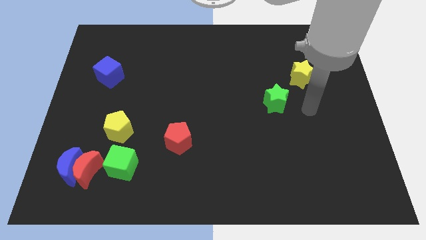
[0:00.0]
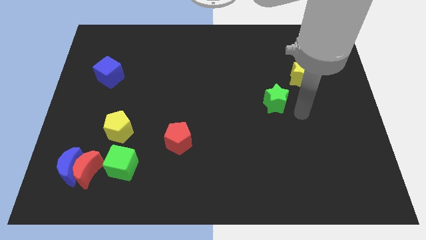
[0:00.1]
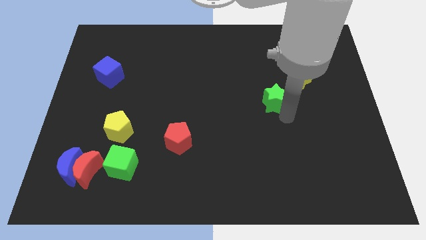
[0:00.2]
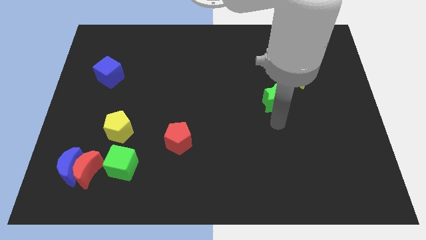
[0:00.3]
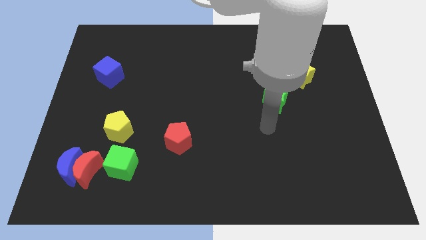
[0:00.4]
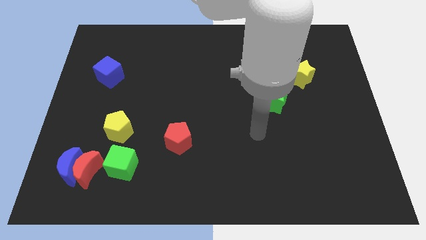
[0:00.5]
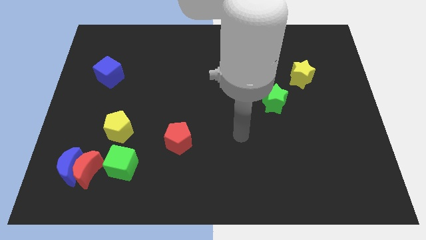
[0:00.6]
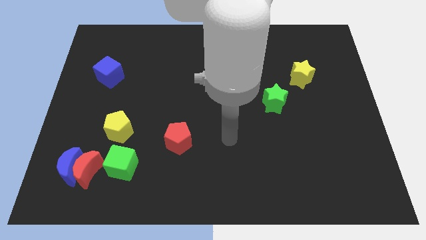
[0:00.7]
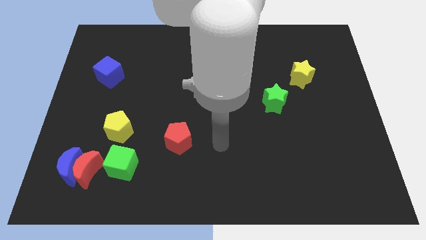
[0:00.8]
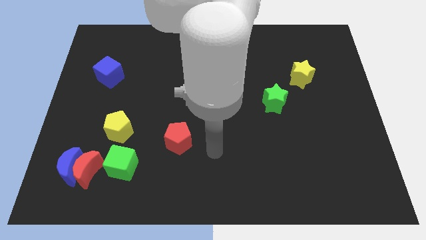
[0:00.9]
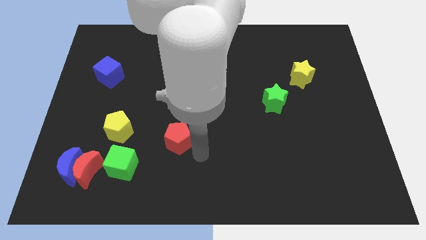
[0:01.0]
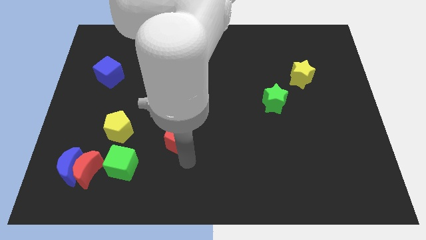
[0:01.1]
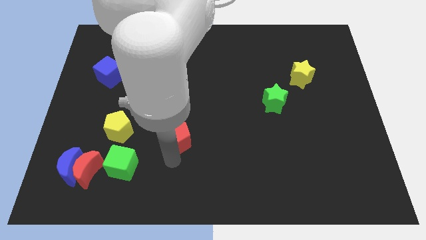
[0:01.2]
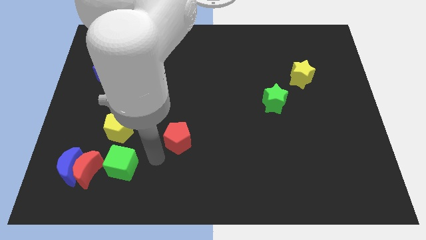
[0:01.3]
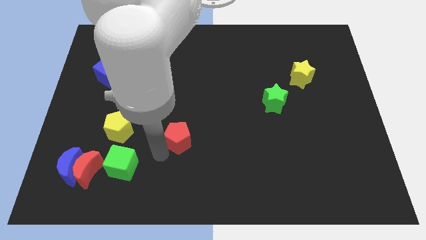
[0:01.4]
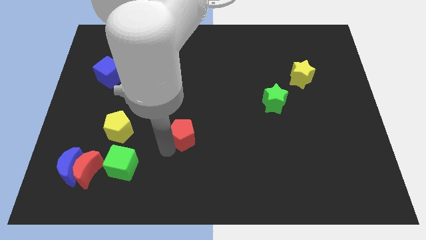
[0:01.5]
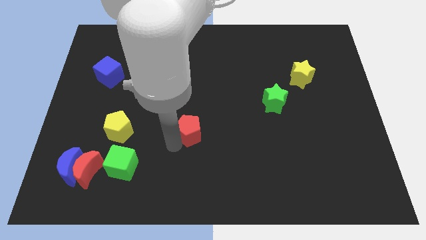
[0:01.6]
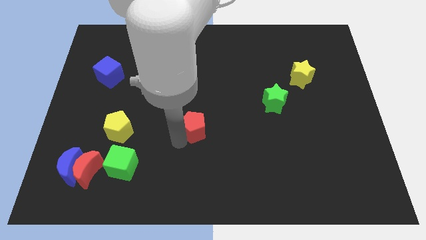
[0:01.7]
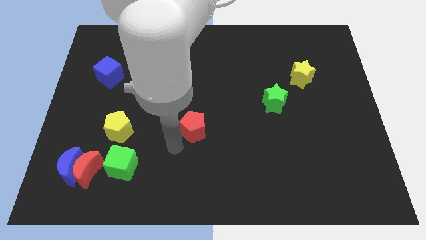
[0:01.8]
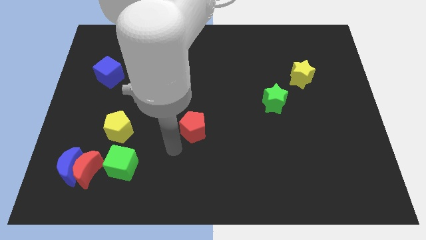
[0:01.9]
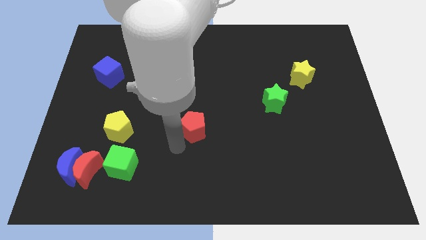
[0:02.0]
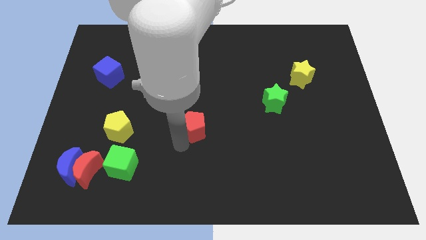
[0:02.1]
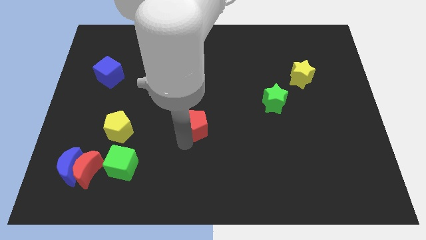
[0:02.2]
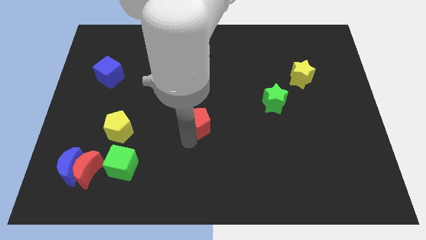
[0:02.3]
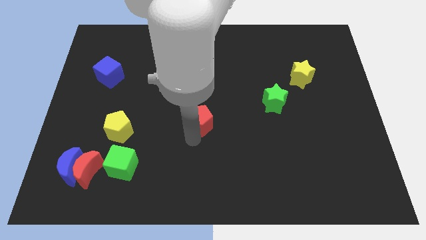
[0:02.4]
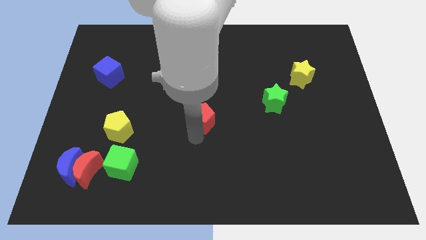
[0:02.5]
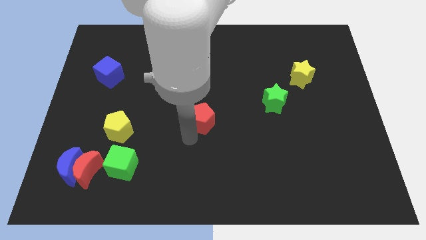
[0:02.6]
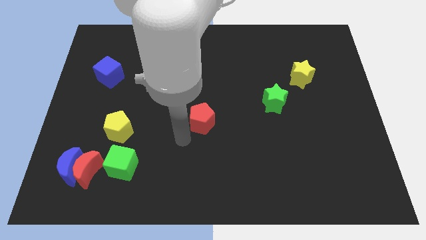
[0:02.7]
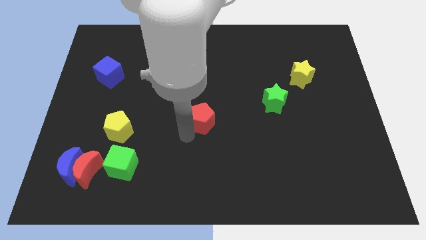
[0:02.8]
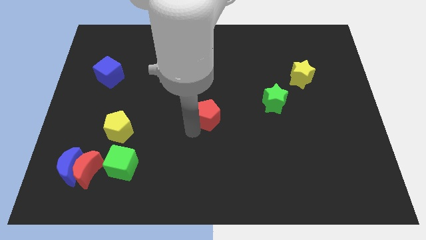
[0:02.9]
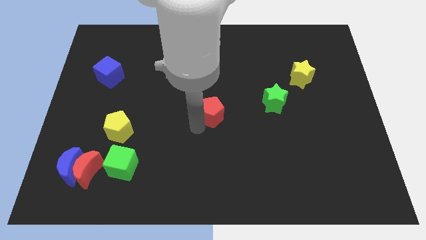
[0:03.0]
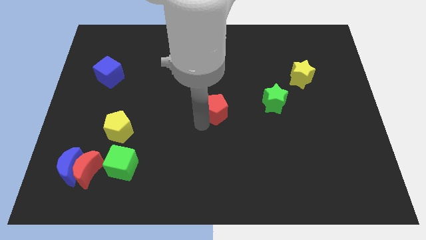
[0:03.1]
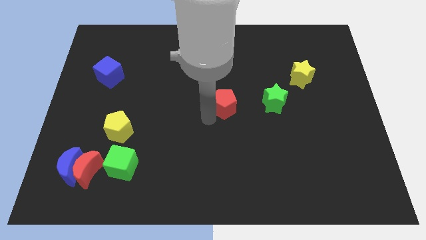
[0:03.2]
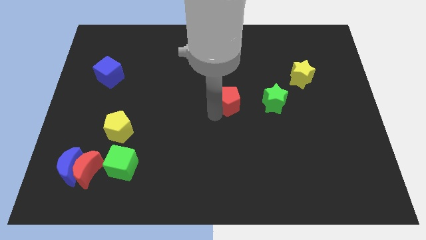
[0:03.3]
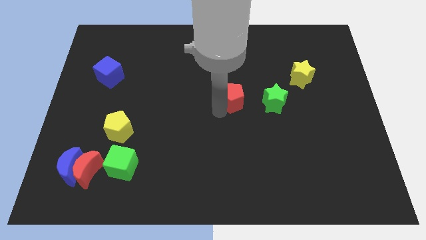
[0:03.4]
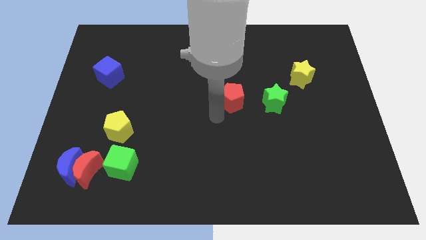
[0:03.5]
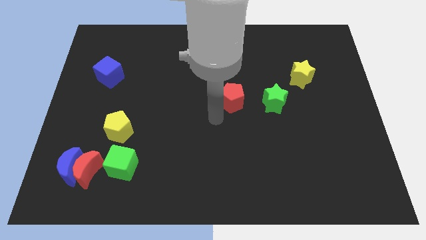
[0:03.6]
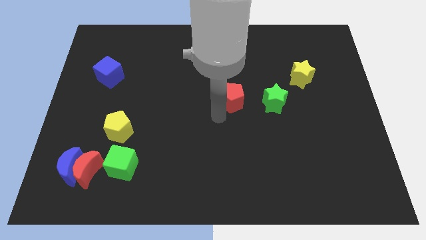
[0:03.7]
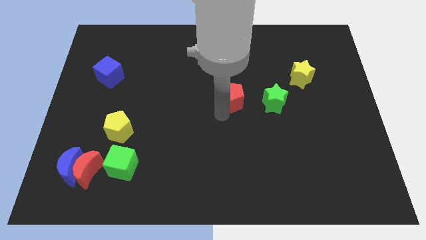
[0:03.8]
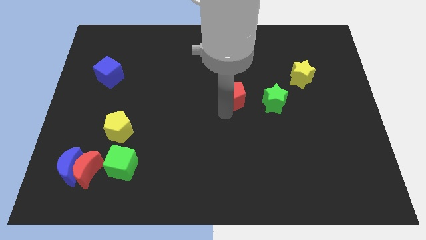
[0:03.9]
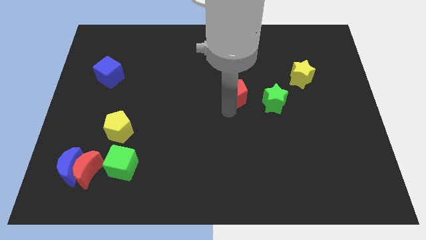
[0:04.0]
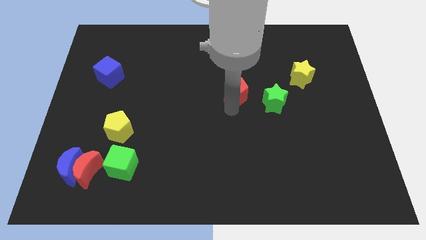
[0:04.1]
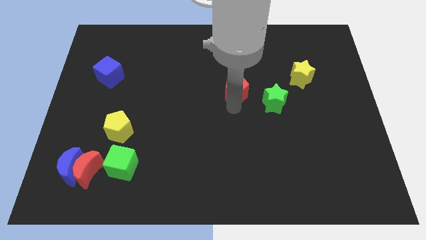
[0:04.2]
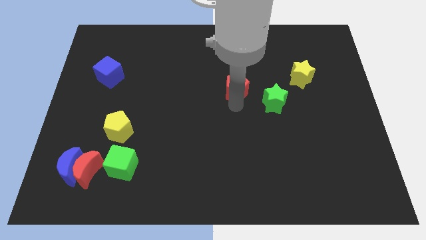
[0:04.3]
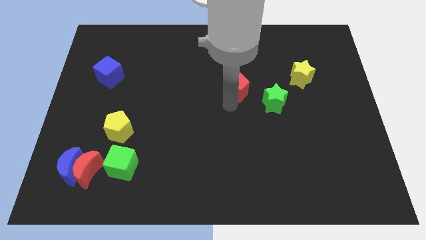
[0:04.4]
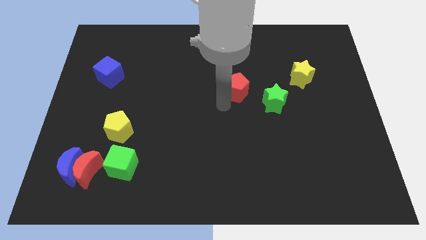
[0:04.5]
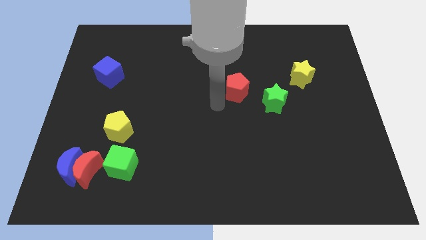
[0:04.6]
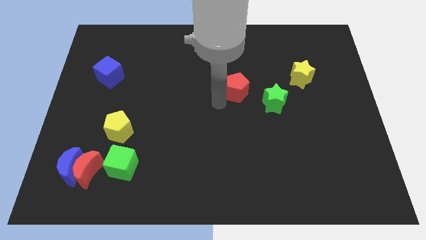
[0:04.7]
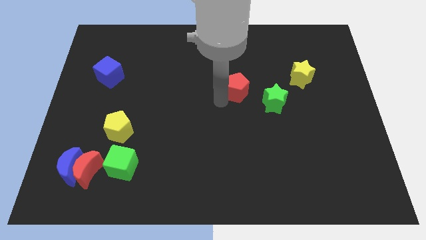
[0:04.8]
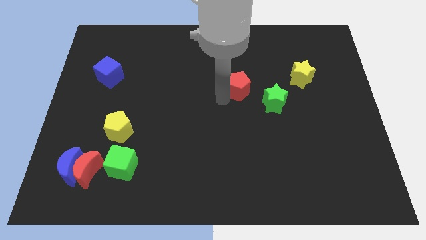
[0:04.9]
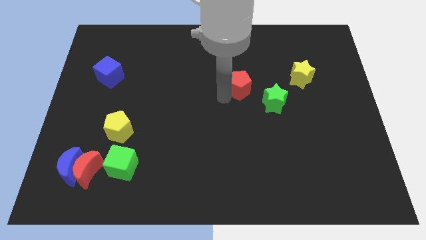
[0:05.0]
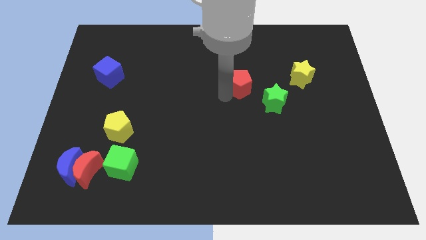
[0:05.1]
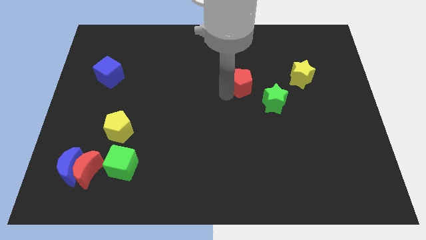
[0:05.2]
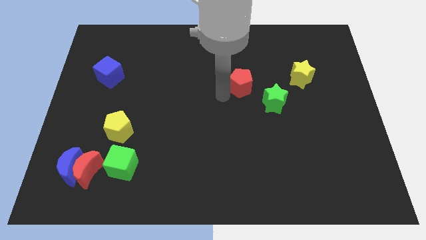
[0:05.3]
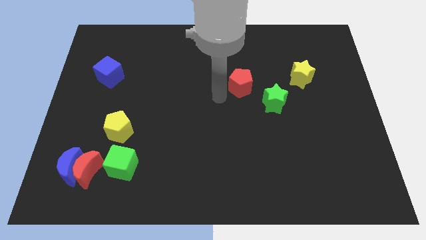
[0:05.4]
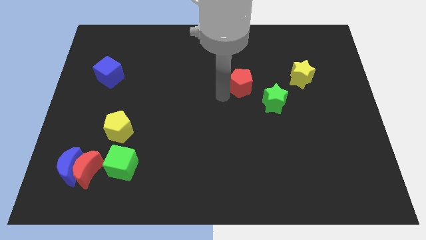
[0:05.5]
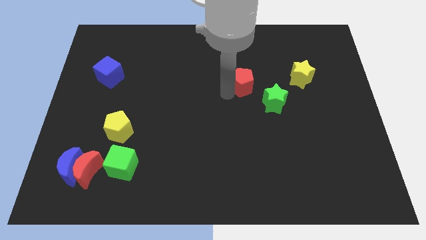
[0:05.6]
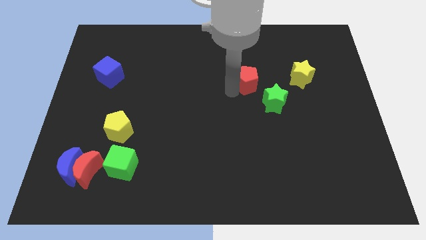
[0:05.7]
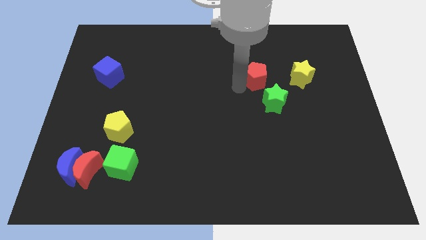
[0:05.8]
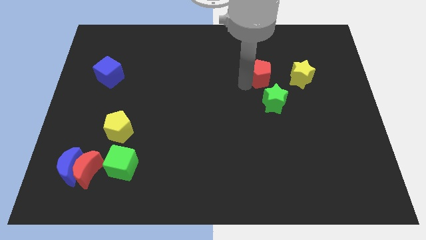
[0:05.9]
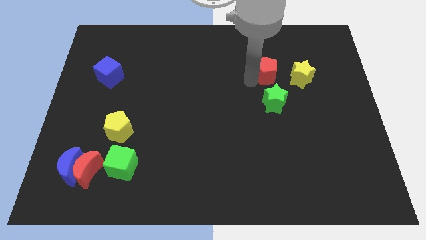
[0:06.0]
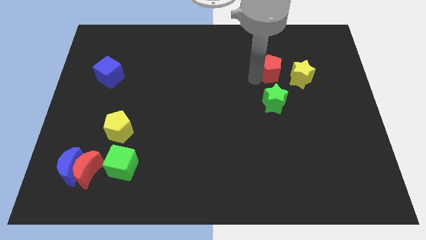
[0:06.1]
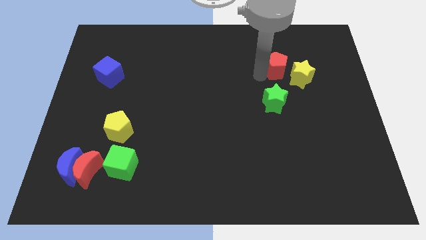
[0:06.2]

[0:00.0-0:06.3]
move the red pentagon to the yellow star

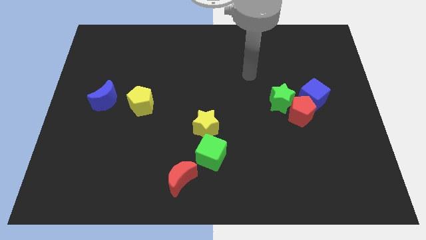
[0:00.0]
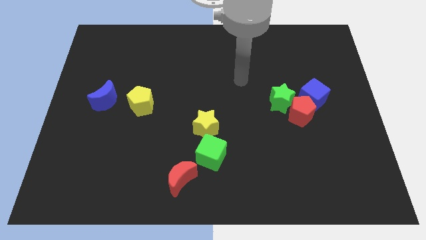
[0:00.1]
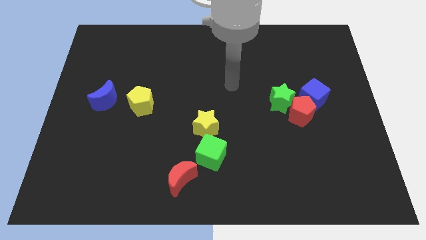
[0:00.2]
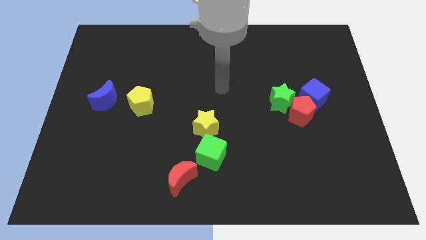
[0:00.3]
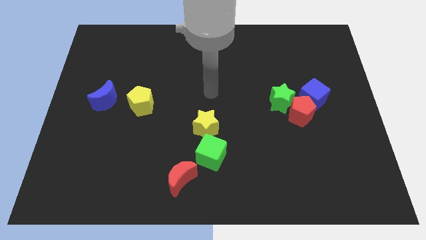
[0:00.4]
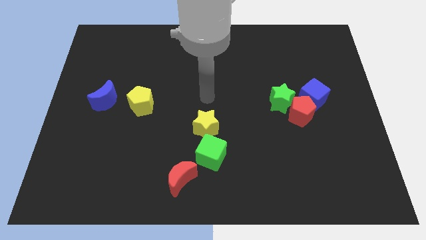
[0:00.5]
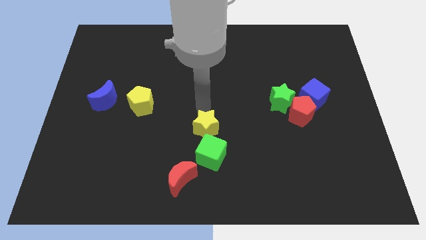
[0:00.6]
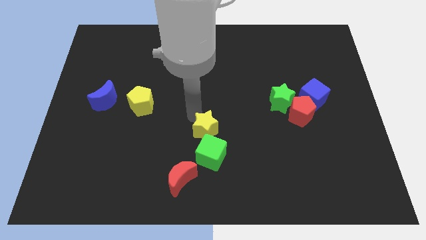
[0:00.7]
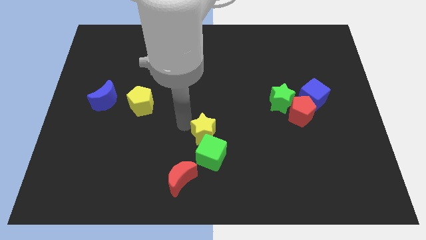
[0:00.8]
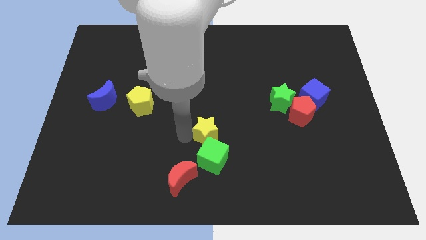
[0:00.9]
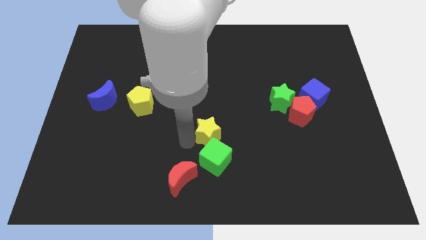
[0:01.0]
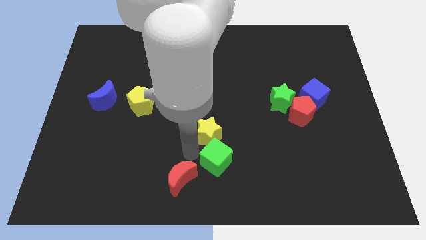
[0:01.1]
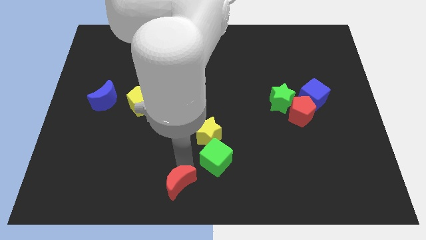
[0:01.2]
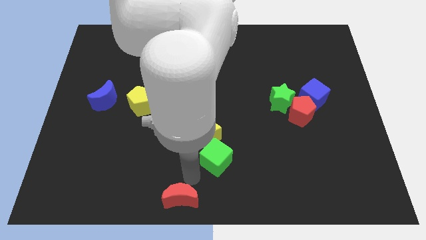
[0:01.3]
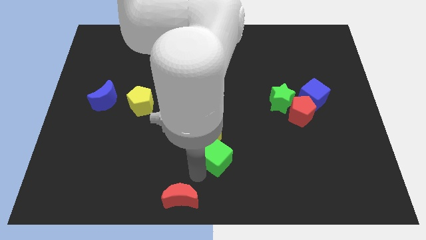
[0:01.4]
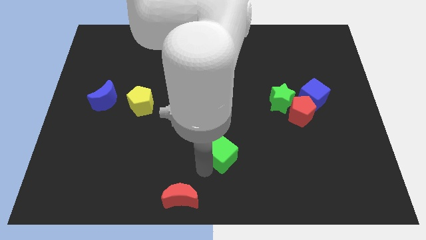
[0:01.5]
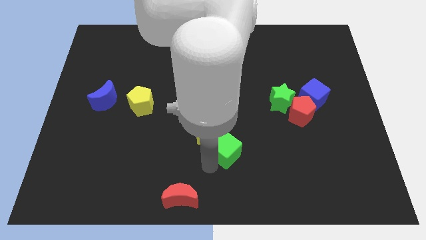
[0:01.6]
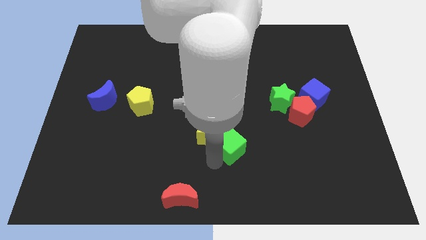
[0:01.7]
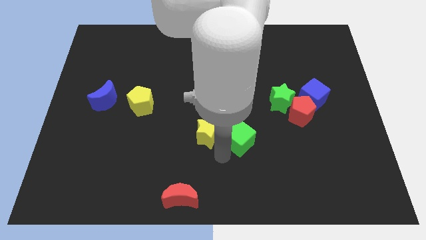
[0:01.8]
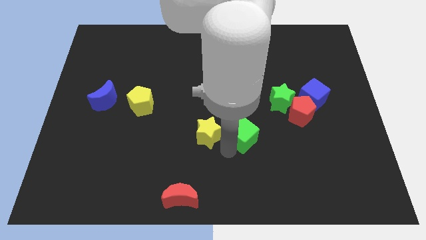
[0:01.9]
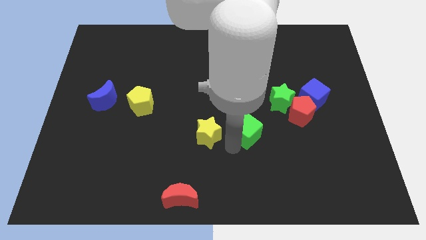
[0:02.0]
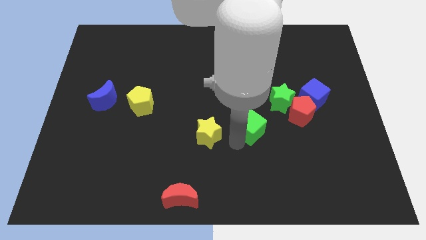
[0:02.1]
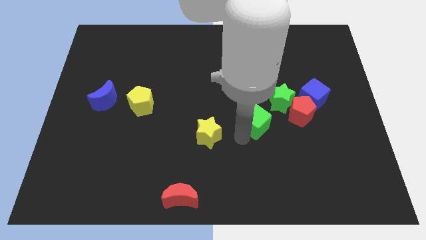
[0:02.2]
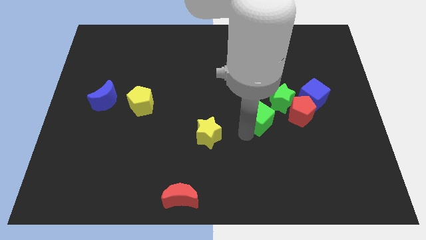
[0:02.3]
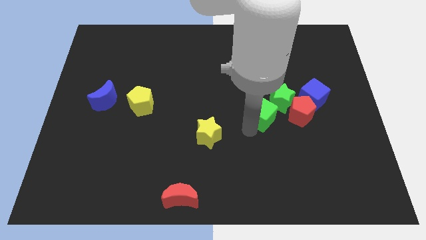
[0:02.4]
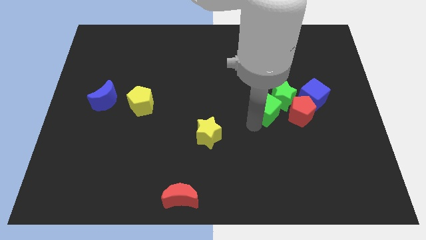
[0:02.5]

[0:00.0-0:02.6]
move the green cube towards the green star
